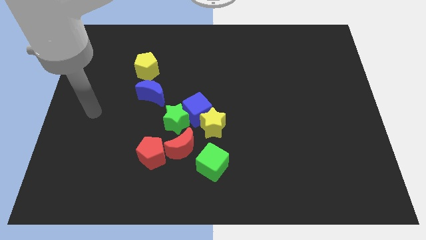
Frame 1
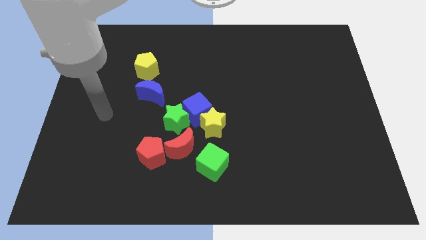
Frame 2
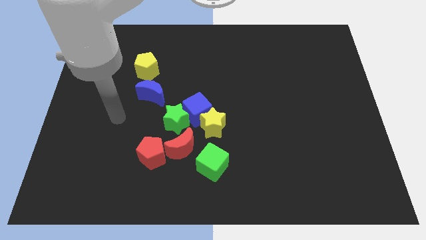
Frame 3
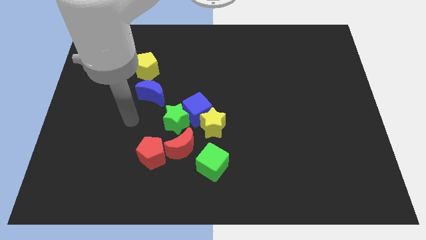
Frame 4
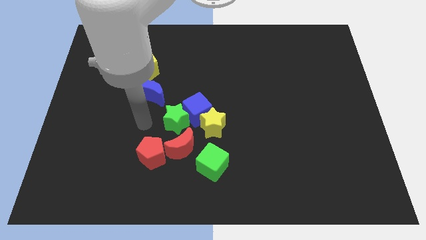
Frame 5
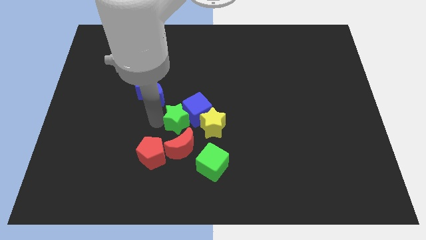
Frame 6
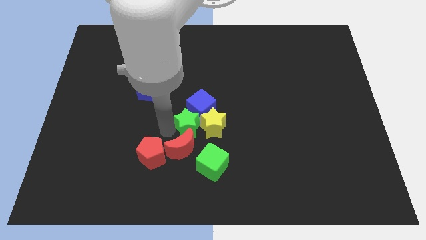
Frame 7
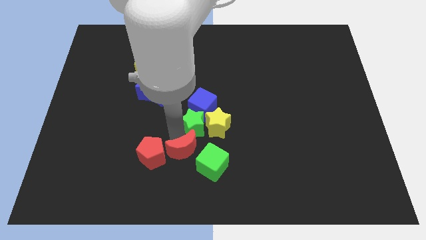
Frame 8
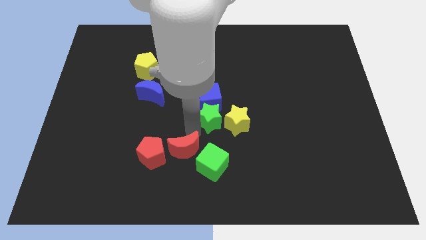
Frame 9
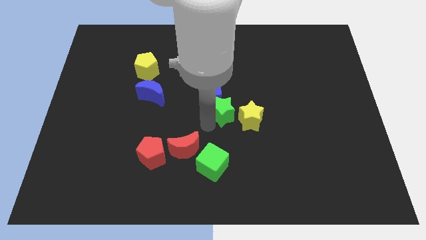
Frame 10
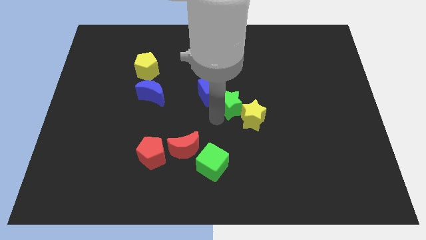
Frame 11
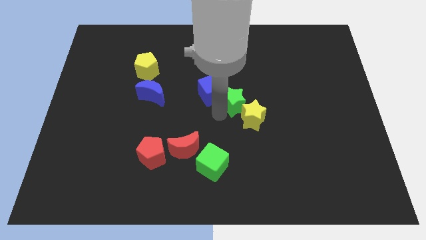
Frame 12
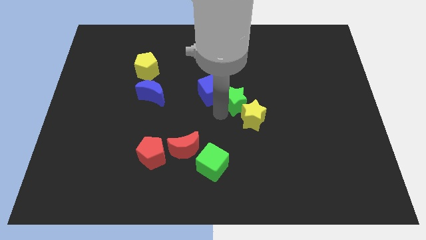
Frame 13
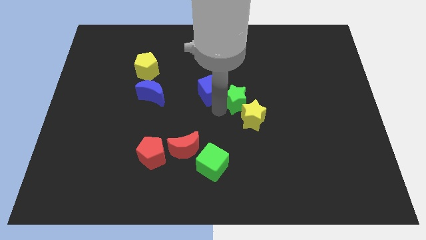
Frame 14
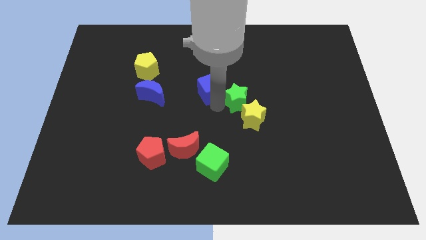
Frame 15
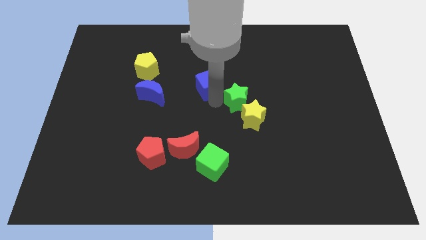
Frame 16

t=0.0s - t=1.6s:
move the blue cube away from the group of blocks

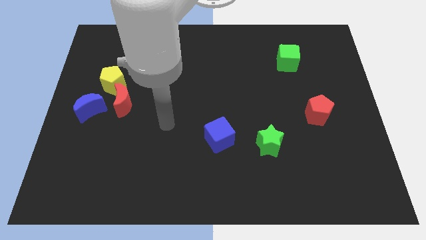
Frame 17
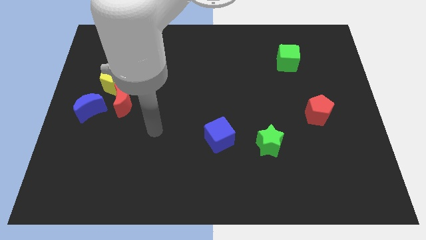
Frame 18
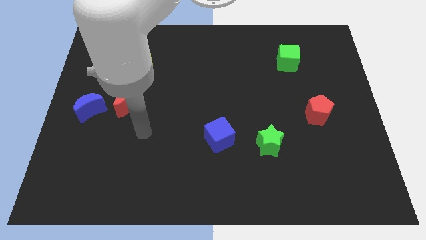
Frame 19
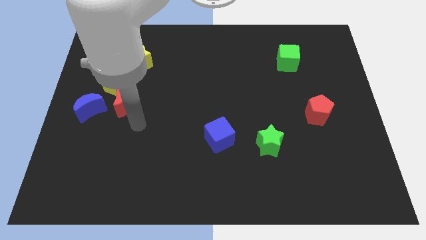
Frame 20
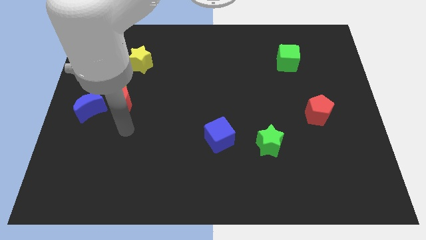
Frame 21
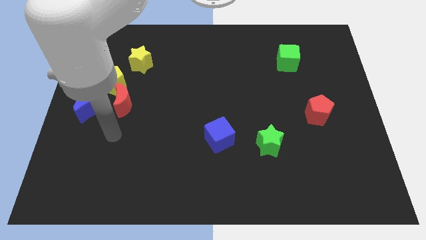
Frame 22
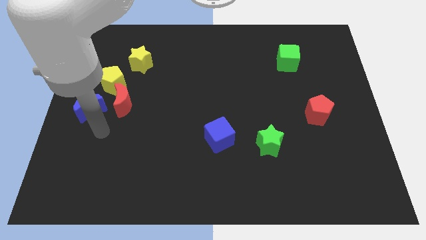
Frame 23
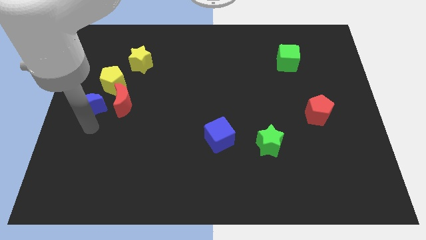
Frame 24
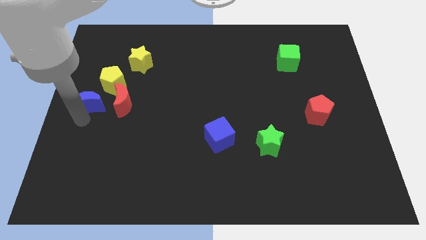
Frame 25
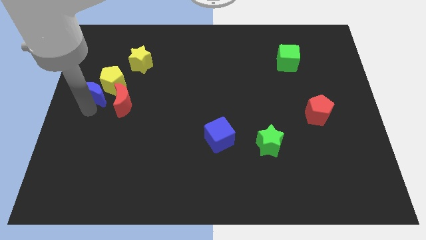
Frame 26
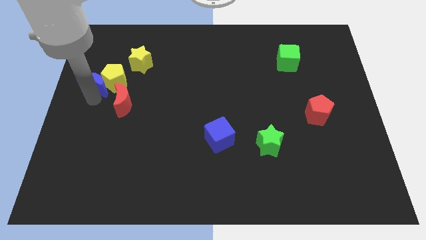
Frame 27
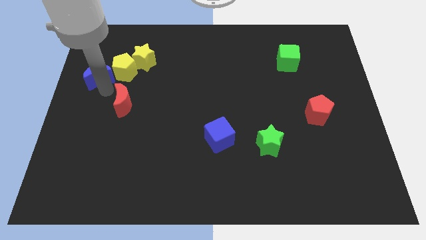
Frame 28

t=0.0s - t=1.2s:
separate the red moon from the yellow pentagon and blue moon

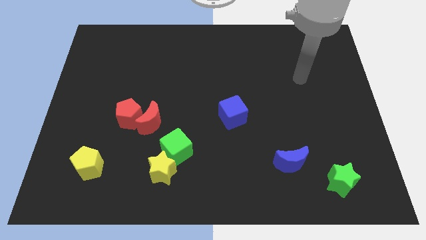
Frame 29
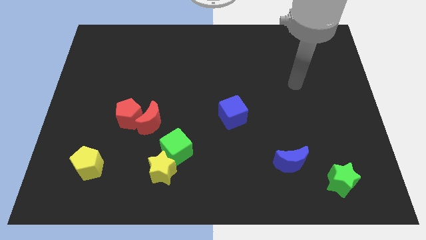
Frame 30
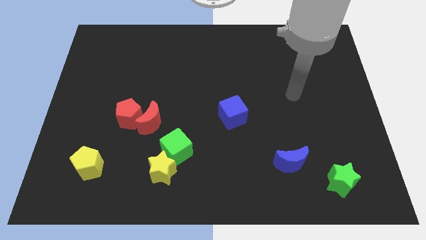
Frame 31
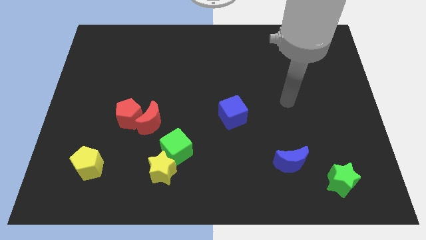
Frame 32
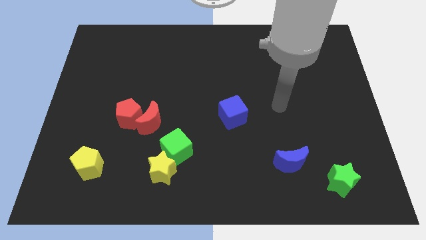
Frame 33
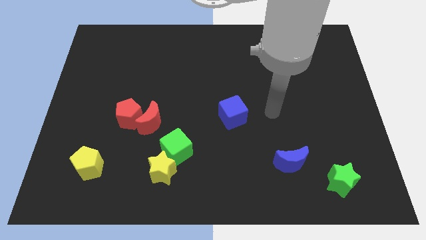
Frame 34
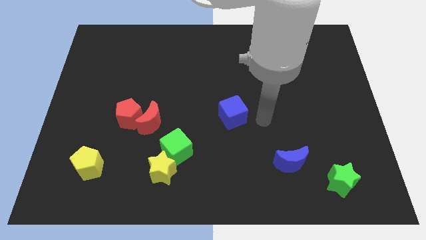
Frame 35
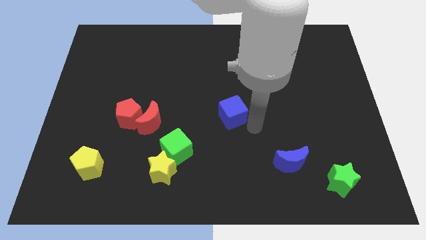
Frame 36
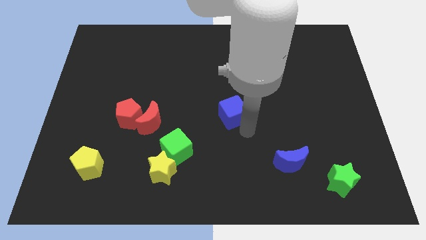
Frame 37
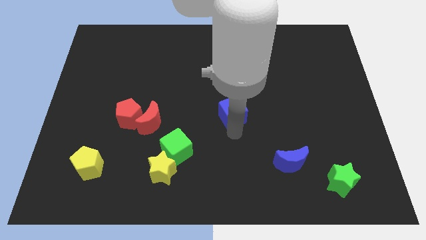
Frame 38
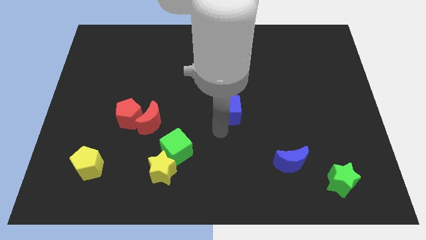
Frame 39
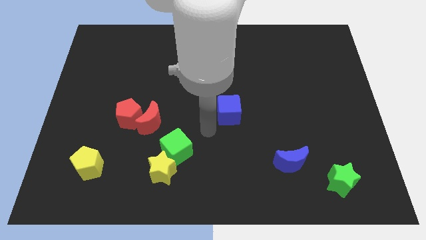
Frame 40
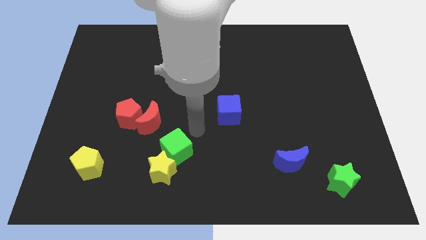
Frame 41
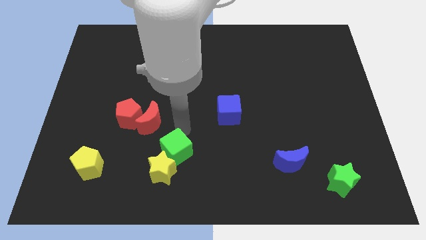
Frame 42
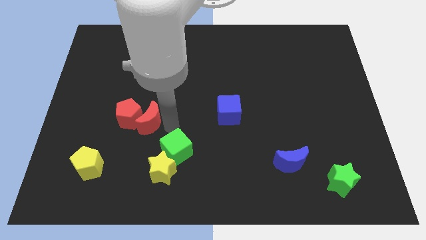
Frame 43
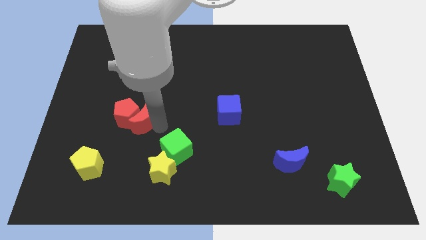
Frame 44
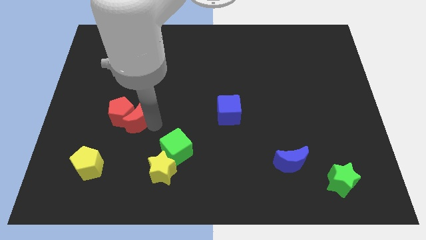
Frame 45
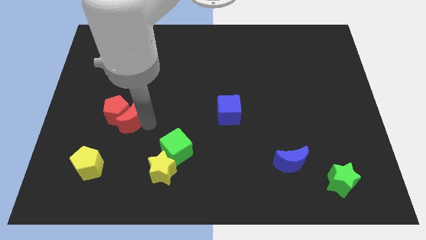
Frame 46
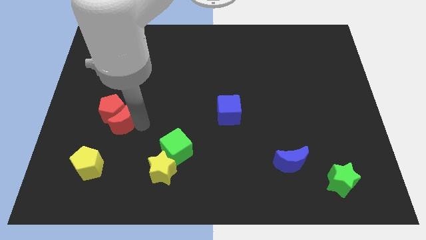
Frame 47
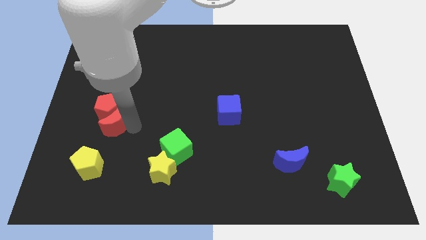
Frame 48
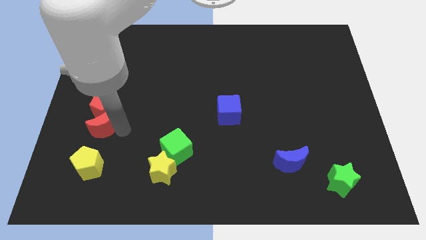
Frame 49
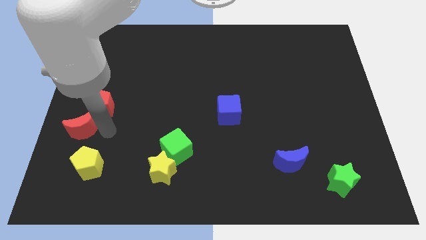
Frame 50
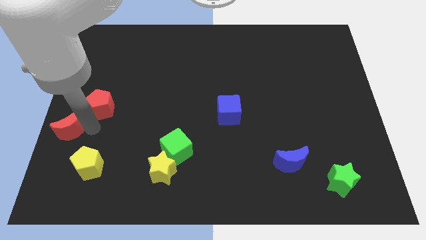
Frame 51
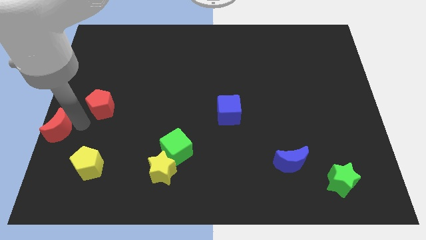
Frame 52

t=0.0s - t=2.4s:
move the red pentagon away from the red moon

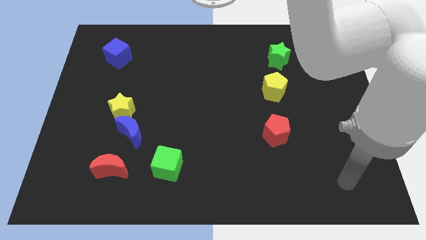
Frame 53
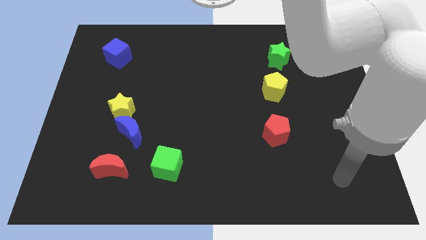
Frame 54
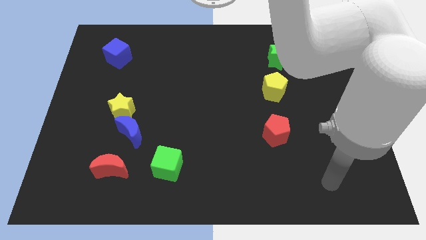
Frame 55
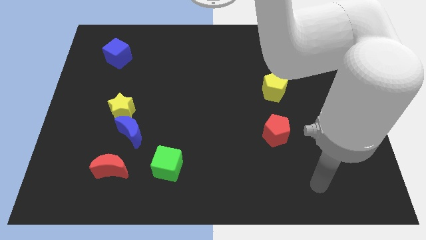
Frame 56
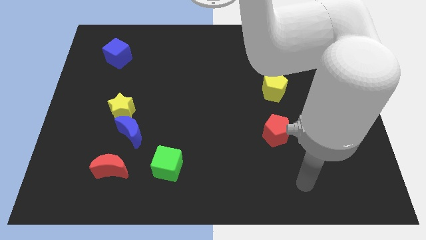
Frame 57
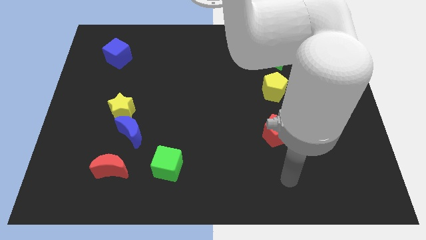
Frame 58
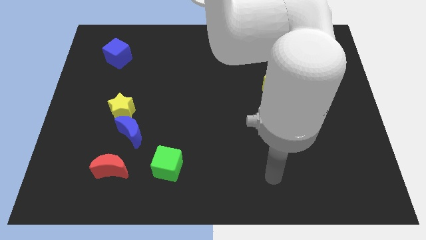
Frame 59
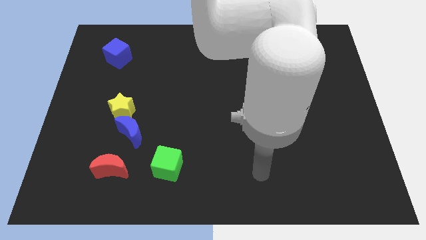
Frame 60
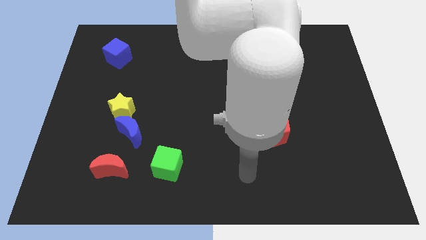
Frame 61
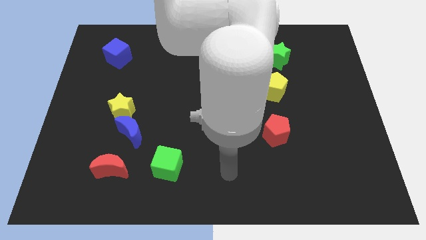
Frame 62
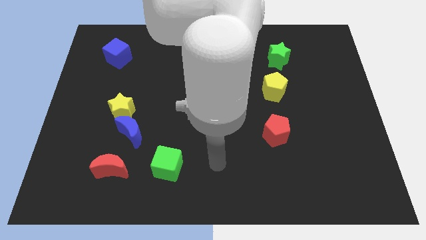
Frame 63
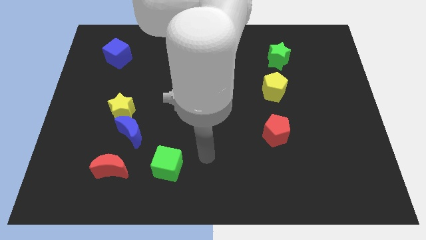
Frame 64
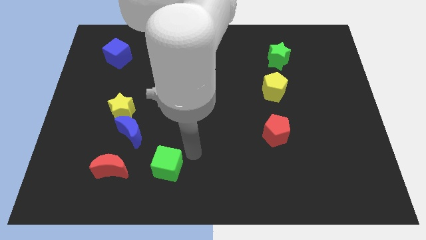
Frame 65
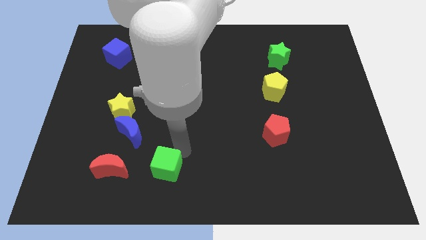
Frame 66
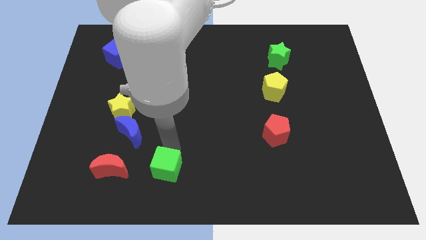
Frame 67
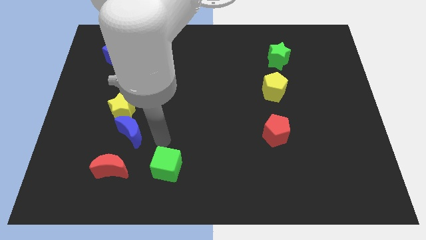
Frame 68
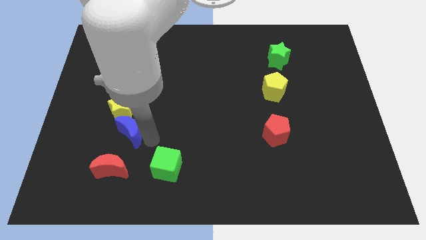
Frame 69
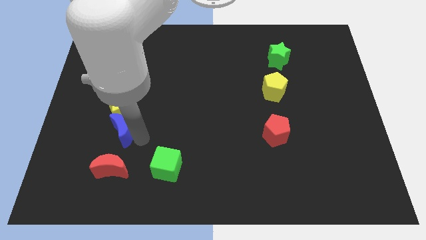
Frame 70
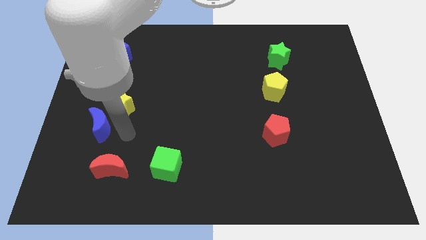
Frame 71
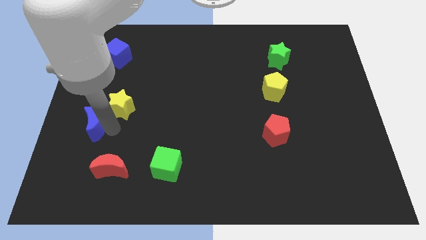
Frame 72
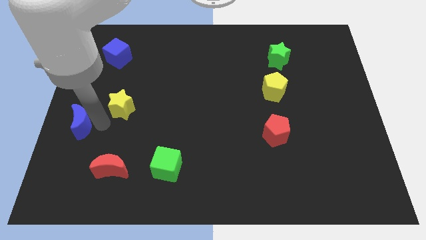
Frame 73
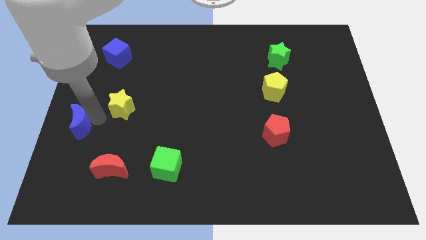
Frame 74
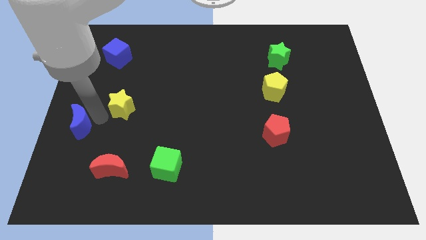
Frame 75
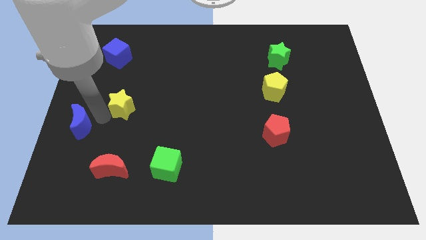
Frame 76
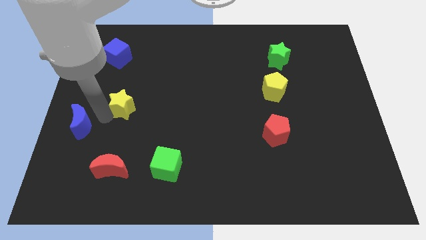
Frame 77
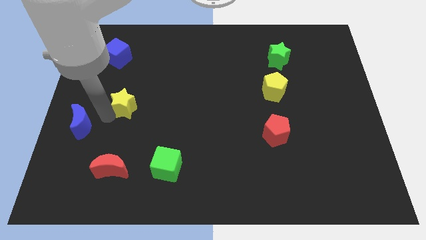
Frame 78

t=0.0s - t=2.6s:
pull the yellow star apart from the blue moon

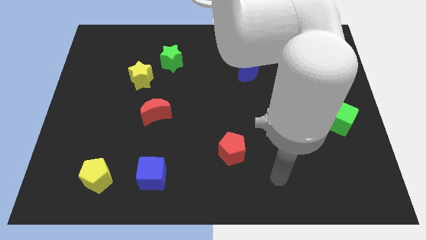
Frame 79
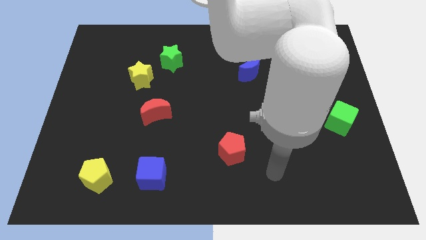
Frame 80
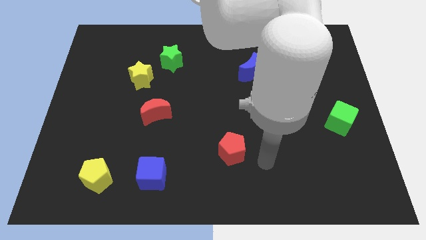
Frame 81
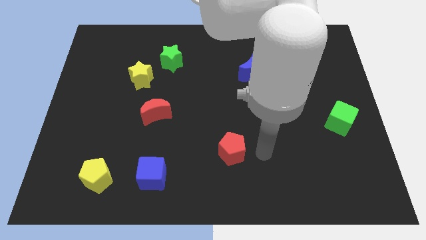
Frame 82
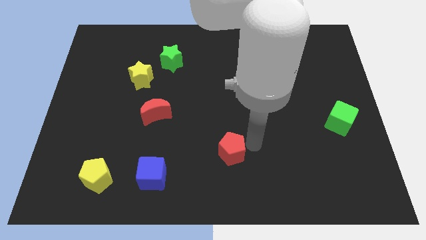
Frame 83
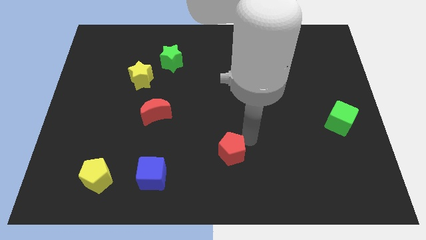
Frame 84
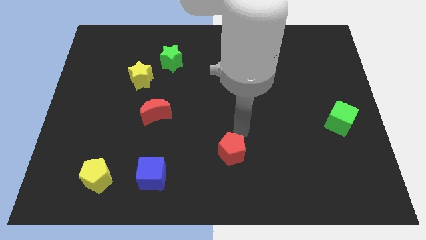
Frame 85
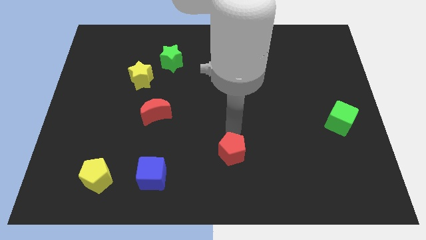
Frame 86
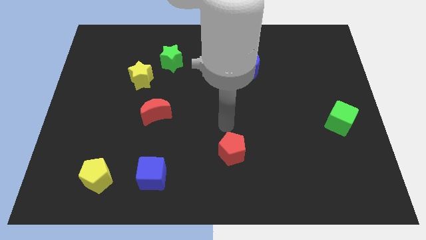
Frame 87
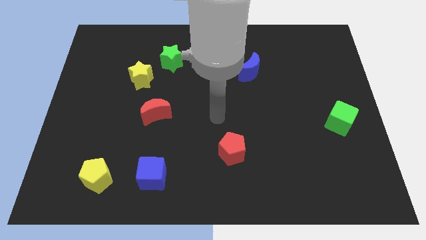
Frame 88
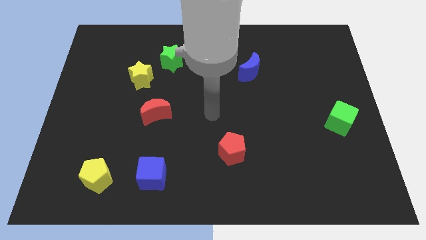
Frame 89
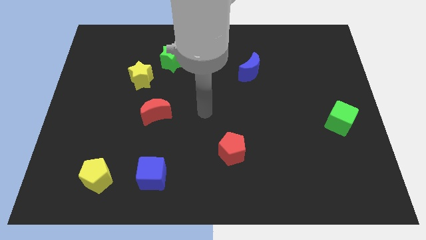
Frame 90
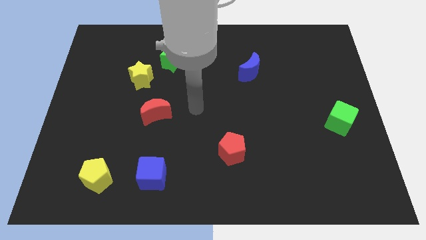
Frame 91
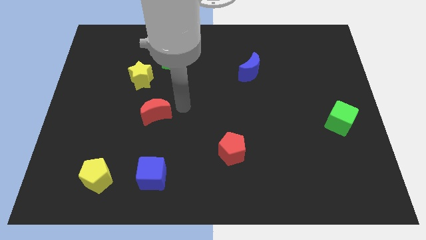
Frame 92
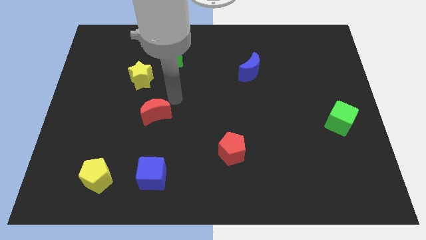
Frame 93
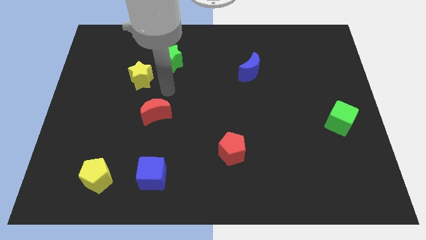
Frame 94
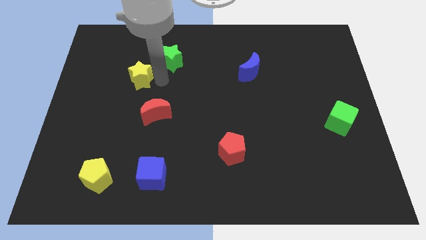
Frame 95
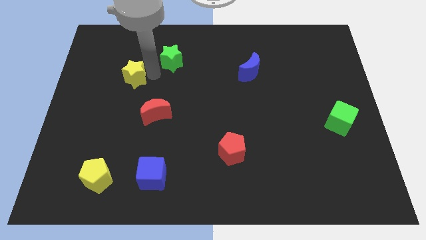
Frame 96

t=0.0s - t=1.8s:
separate the green star from the yellow star
